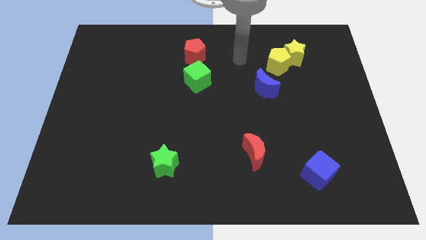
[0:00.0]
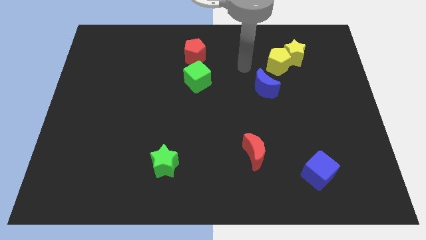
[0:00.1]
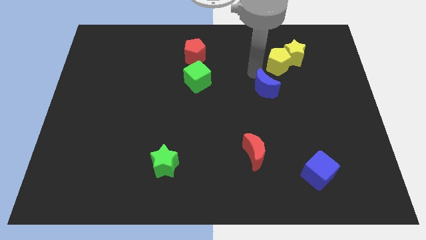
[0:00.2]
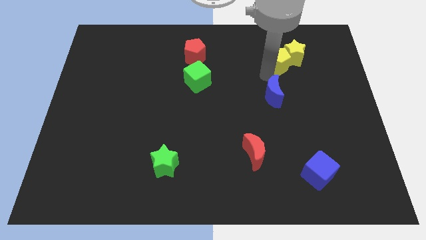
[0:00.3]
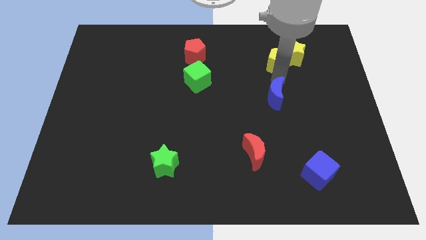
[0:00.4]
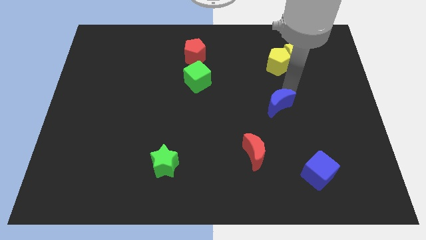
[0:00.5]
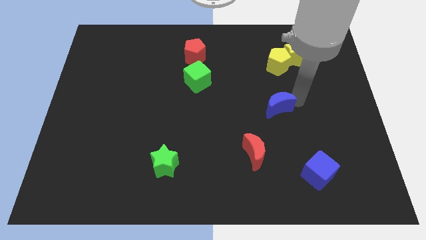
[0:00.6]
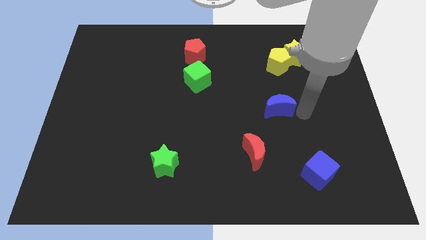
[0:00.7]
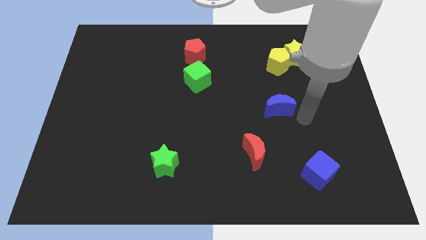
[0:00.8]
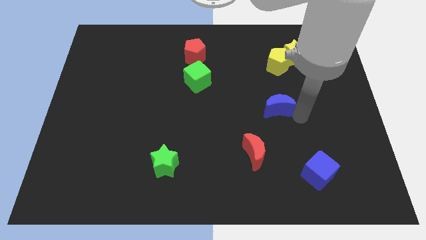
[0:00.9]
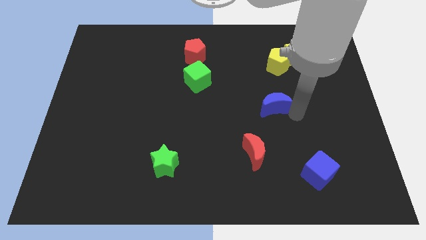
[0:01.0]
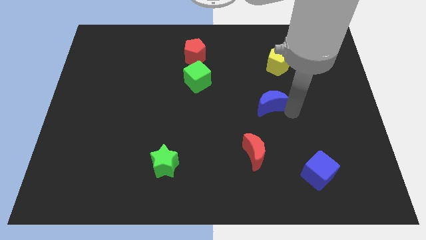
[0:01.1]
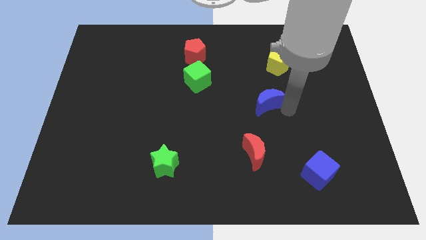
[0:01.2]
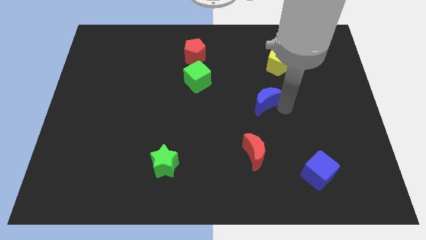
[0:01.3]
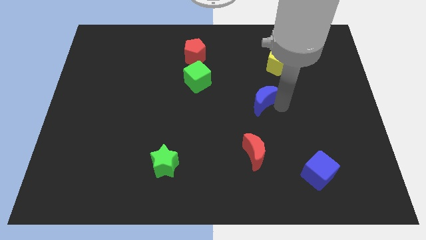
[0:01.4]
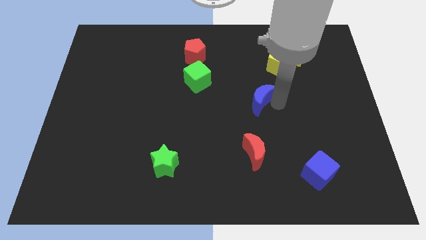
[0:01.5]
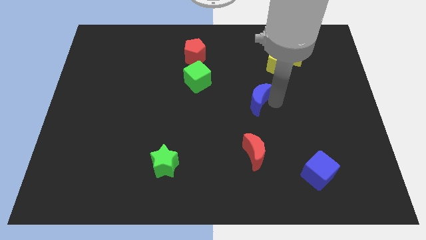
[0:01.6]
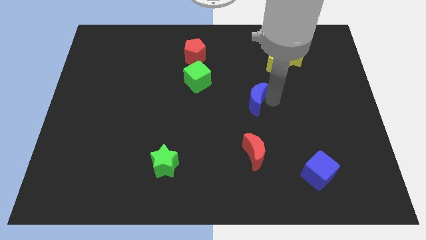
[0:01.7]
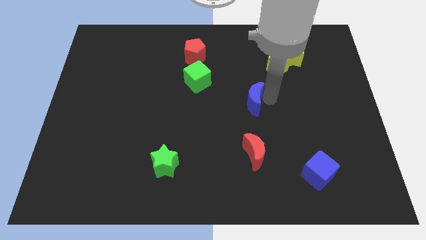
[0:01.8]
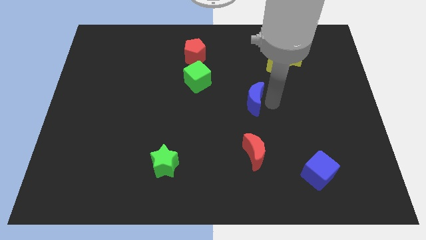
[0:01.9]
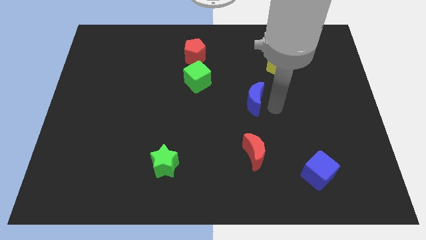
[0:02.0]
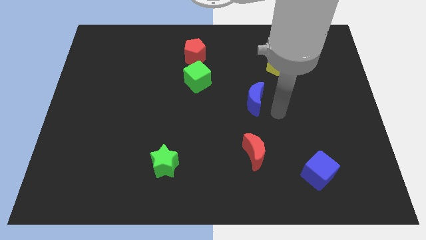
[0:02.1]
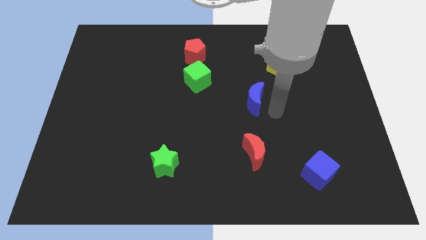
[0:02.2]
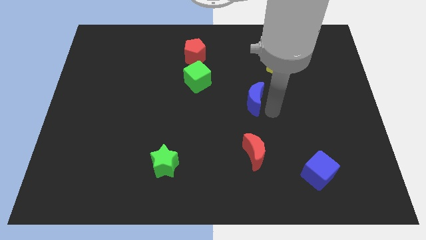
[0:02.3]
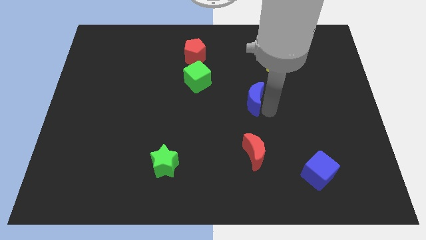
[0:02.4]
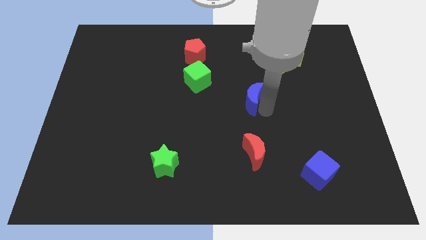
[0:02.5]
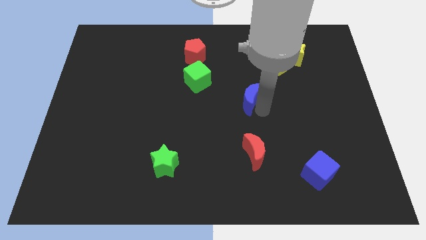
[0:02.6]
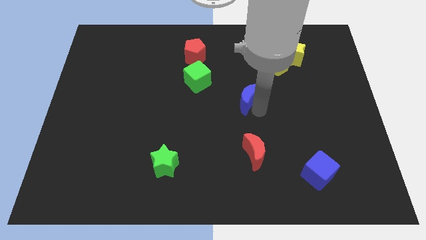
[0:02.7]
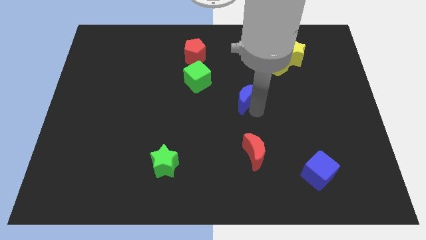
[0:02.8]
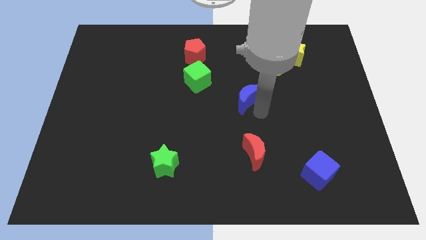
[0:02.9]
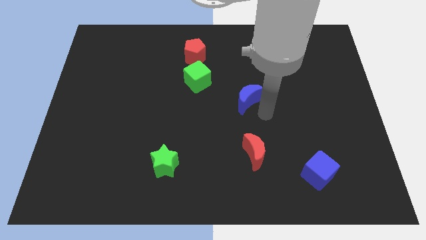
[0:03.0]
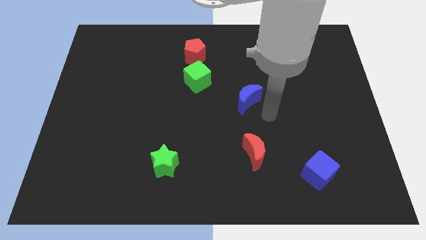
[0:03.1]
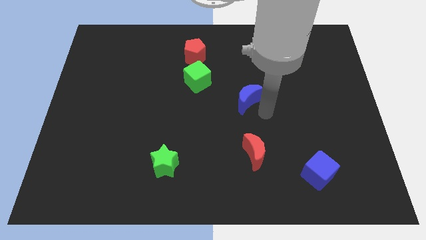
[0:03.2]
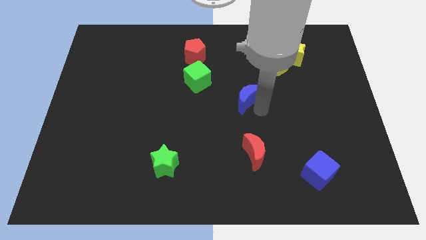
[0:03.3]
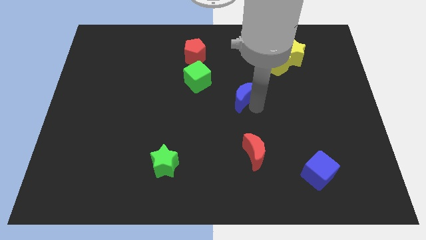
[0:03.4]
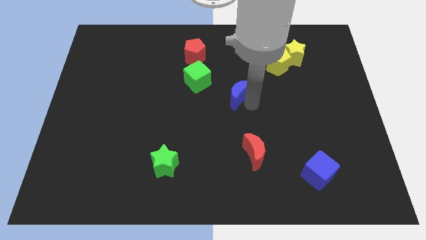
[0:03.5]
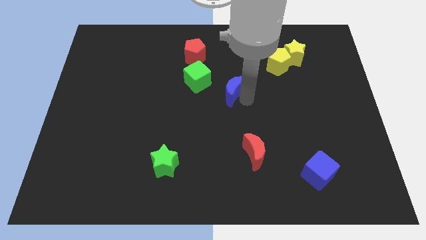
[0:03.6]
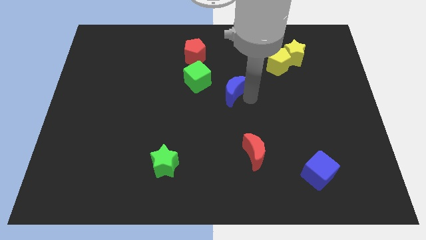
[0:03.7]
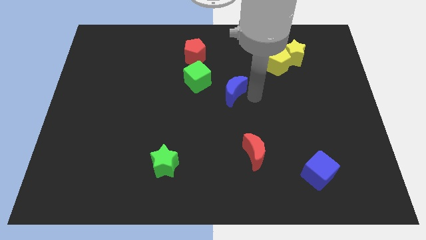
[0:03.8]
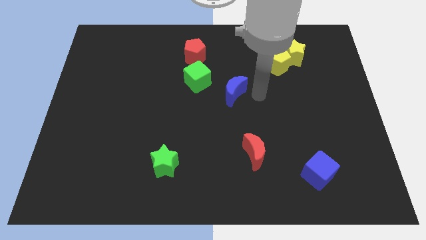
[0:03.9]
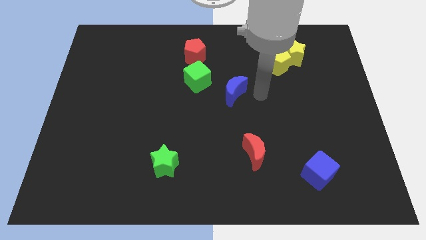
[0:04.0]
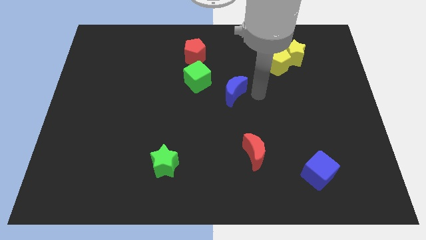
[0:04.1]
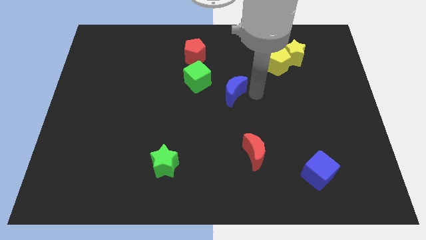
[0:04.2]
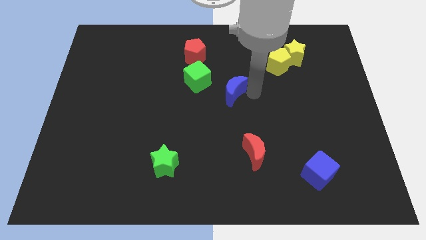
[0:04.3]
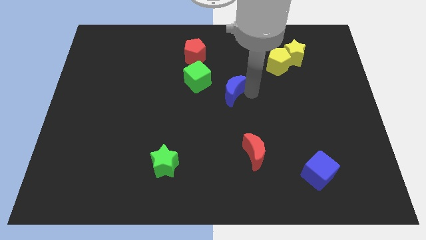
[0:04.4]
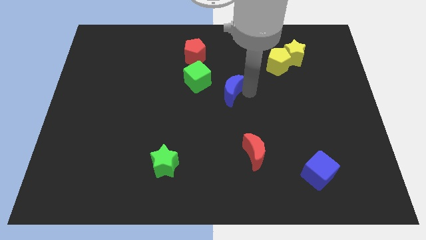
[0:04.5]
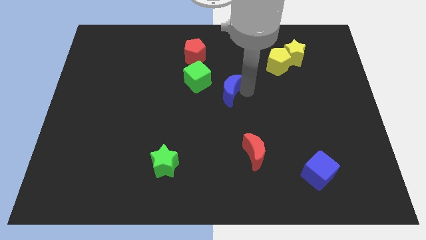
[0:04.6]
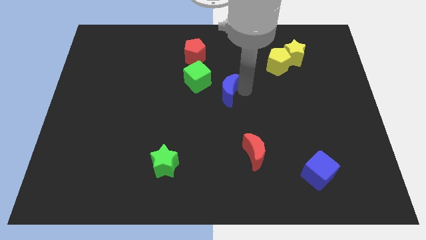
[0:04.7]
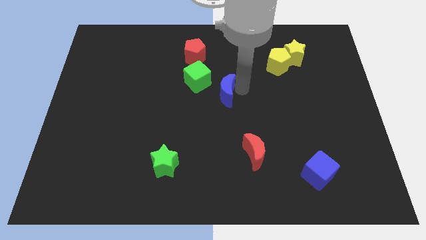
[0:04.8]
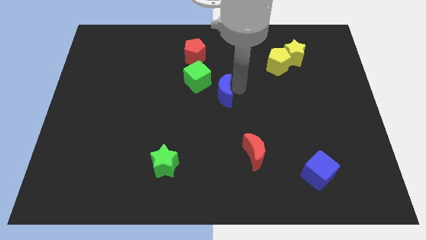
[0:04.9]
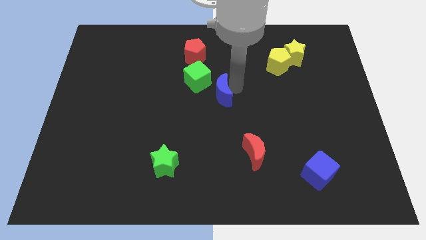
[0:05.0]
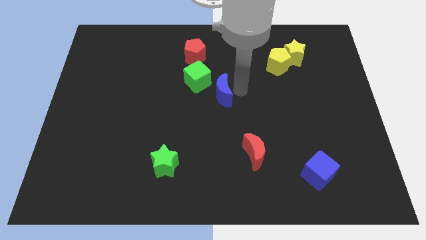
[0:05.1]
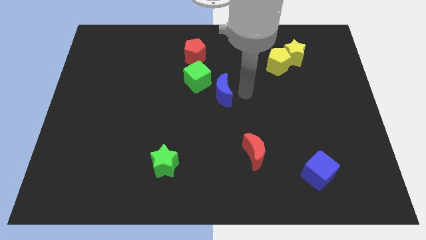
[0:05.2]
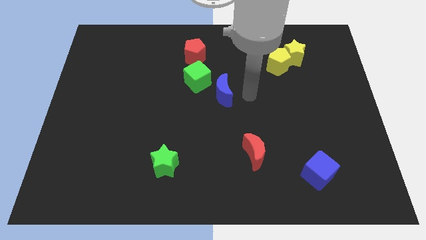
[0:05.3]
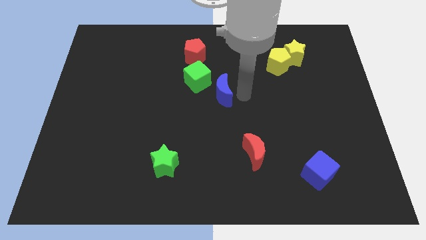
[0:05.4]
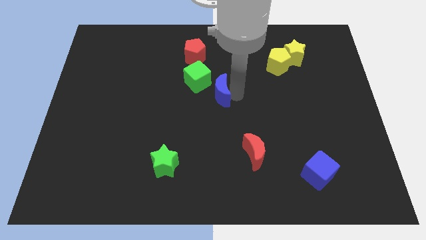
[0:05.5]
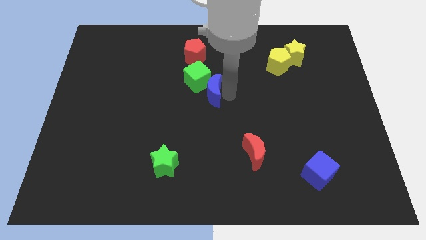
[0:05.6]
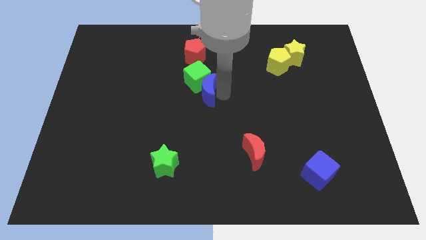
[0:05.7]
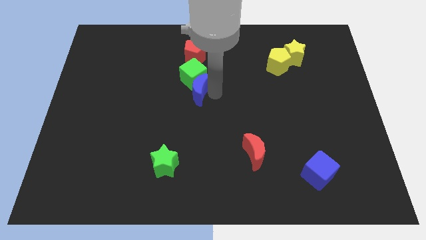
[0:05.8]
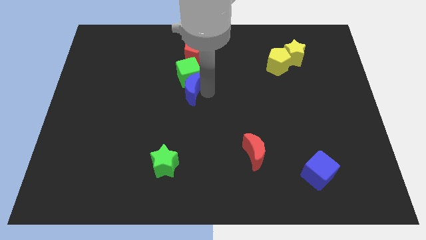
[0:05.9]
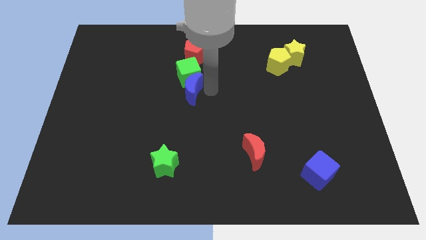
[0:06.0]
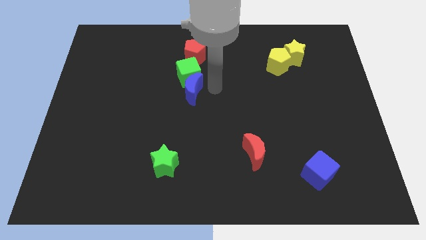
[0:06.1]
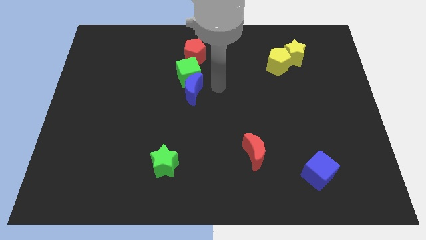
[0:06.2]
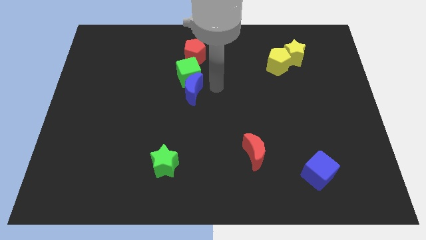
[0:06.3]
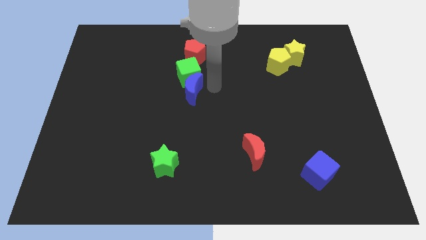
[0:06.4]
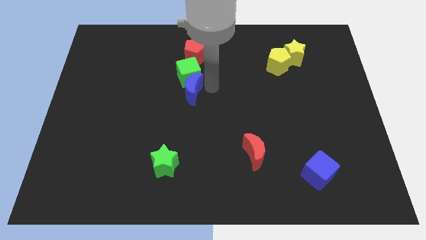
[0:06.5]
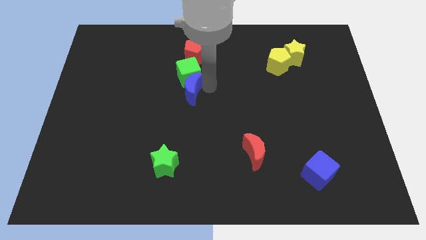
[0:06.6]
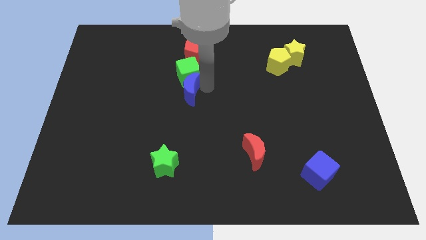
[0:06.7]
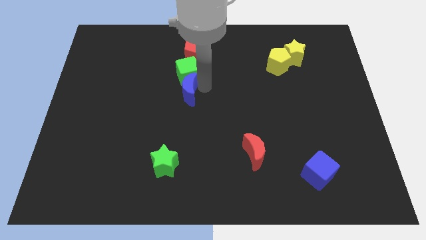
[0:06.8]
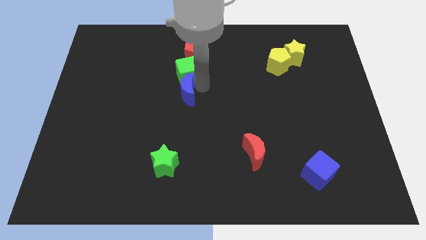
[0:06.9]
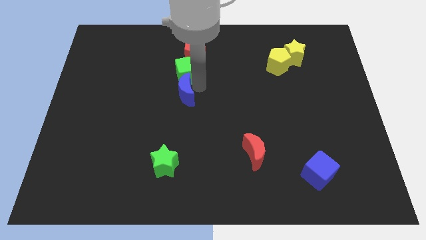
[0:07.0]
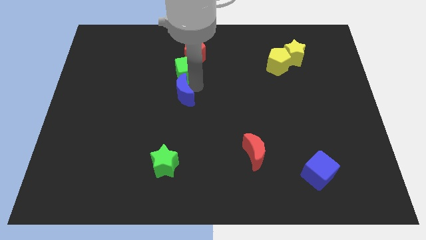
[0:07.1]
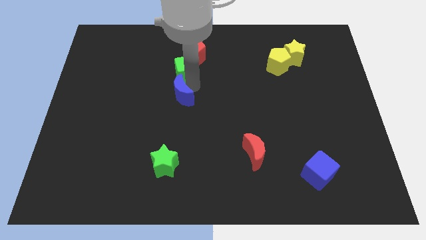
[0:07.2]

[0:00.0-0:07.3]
move the blue moon left

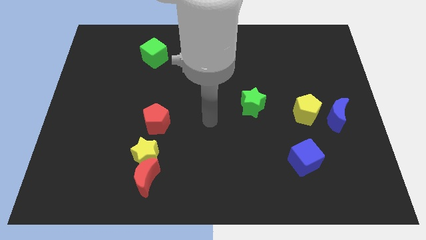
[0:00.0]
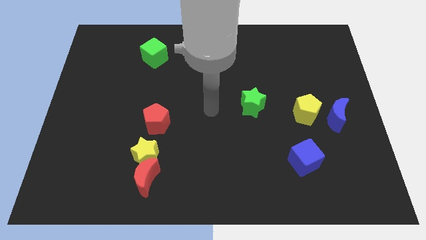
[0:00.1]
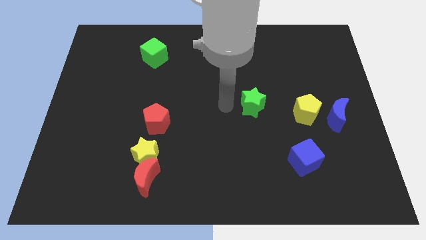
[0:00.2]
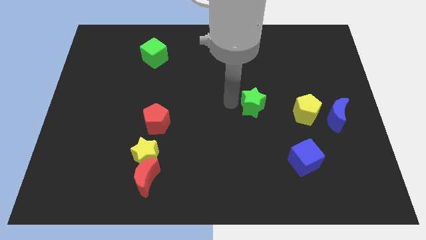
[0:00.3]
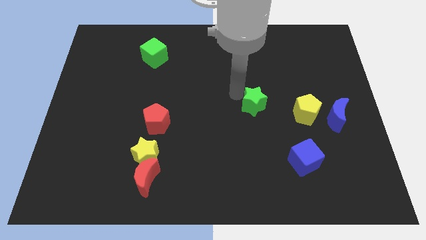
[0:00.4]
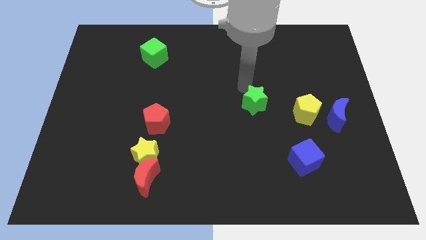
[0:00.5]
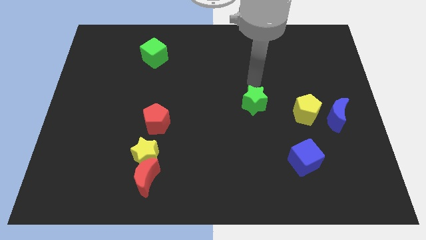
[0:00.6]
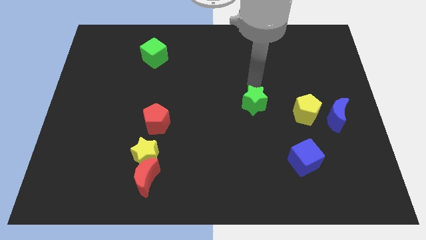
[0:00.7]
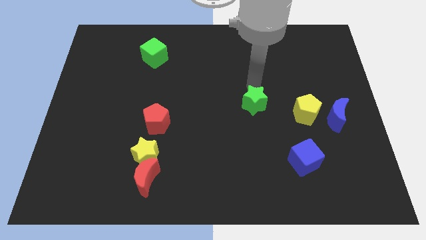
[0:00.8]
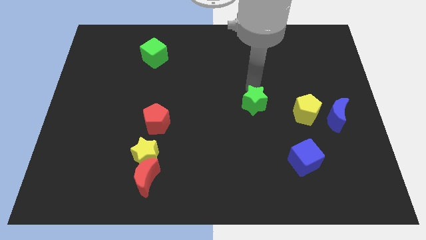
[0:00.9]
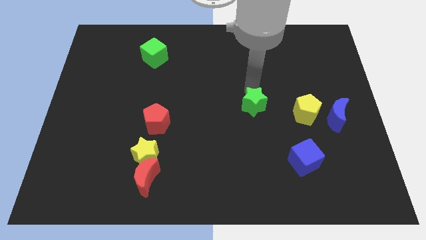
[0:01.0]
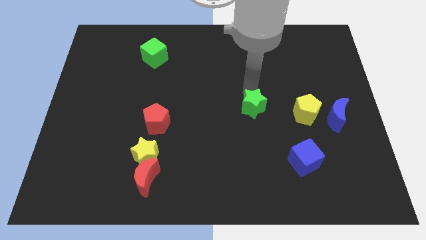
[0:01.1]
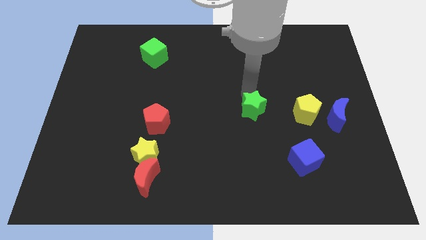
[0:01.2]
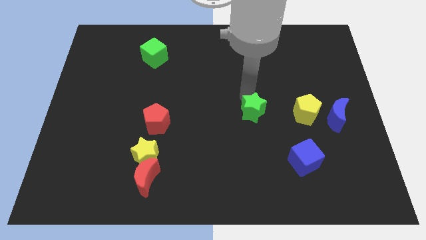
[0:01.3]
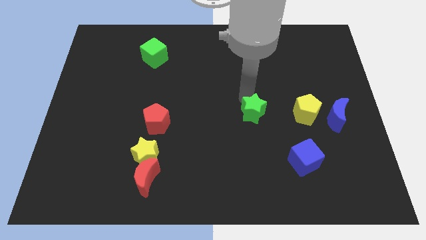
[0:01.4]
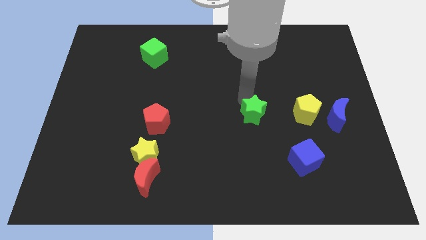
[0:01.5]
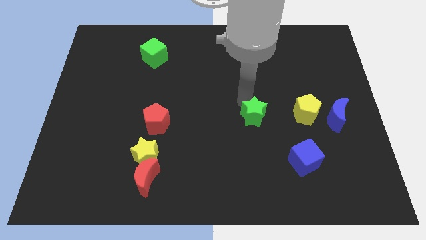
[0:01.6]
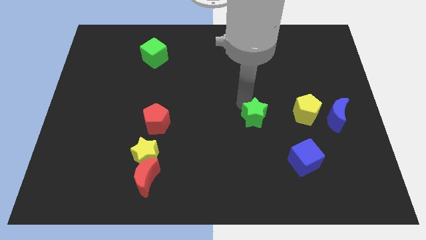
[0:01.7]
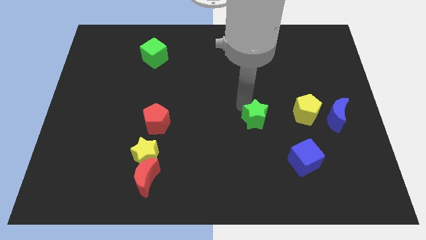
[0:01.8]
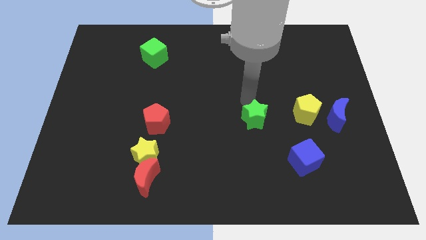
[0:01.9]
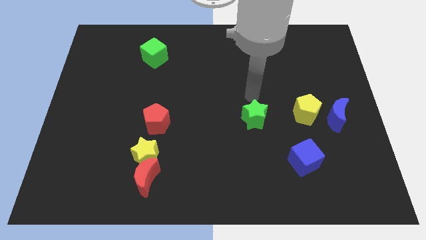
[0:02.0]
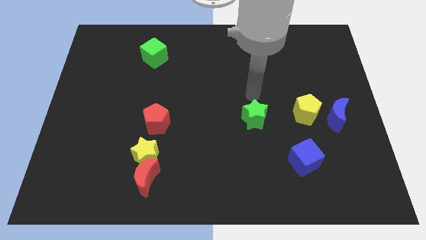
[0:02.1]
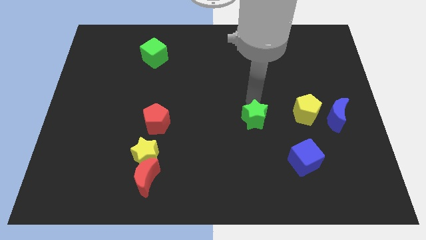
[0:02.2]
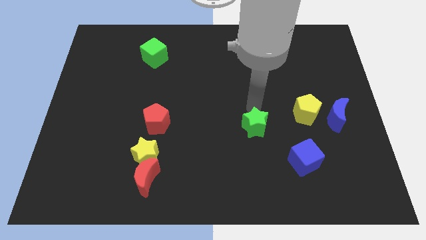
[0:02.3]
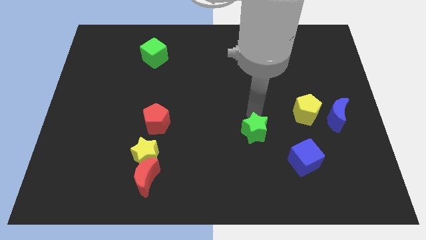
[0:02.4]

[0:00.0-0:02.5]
slide the green star downwards a little bit
